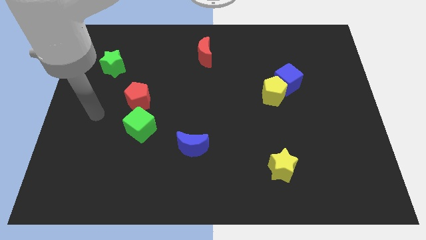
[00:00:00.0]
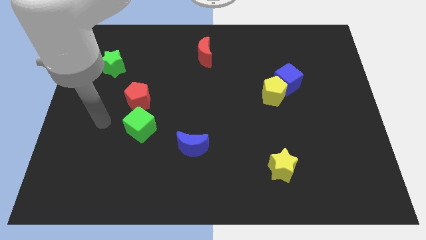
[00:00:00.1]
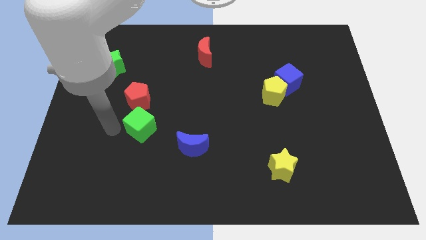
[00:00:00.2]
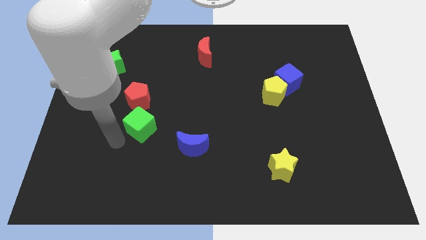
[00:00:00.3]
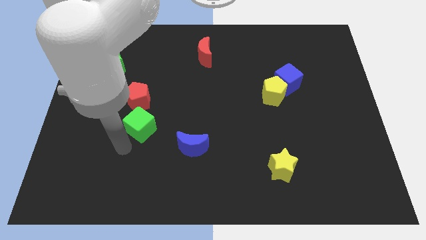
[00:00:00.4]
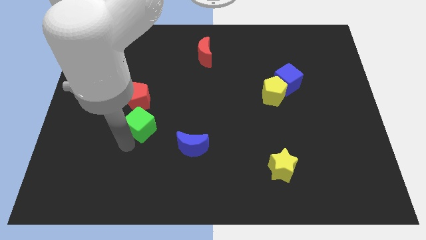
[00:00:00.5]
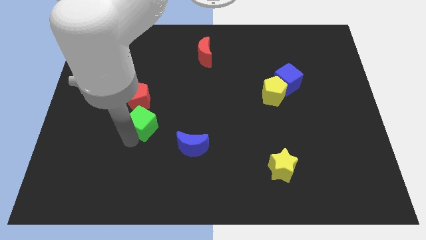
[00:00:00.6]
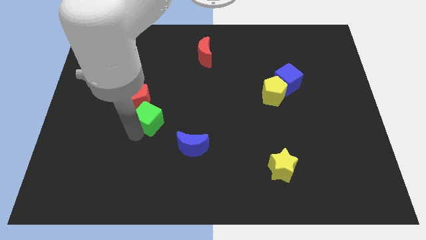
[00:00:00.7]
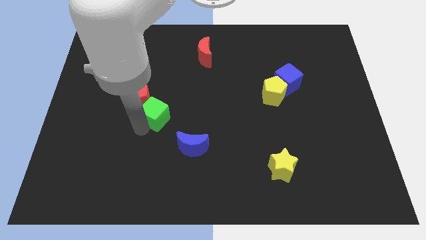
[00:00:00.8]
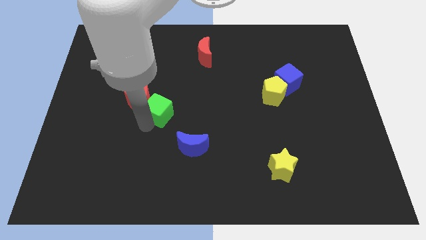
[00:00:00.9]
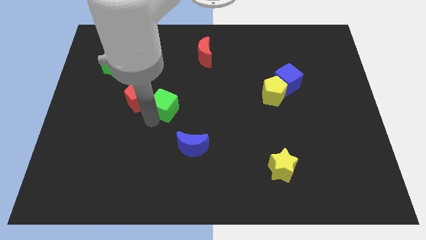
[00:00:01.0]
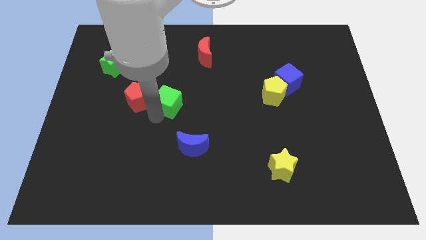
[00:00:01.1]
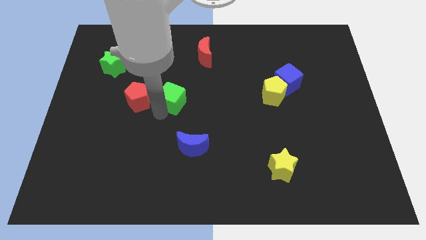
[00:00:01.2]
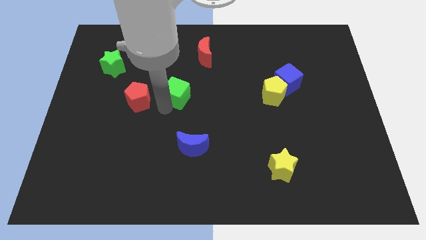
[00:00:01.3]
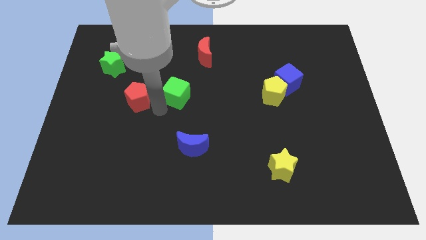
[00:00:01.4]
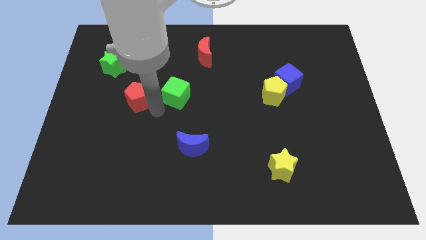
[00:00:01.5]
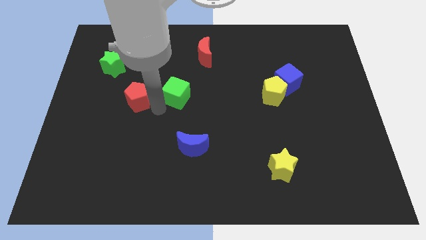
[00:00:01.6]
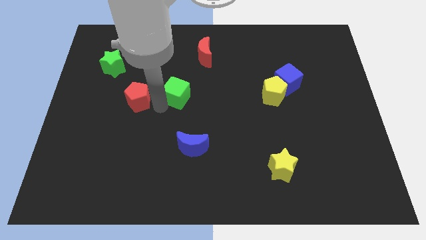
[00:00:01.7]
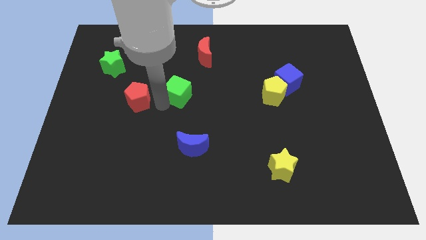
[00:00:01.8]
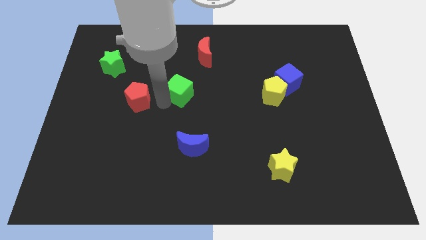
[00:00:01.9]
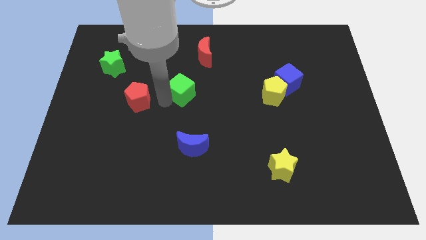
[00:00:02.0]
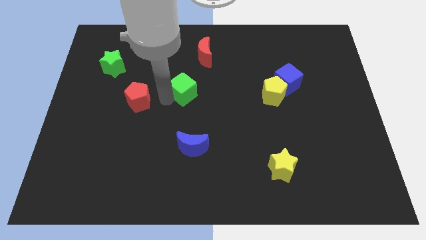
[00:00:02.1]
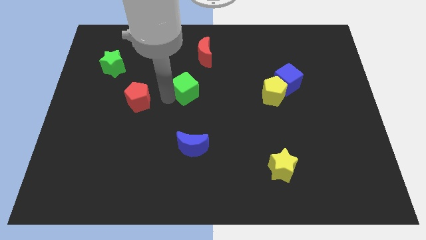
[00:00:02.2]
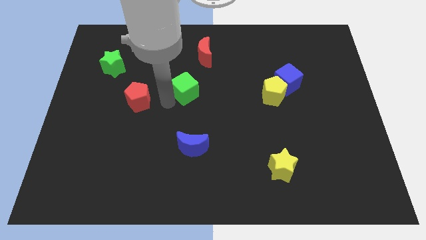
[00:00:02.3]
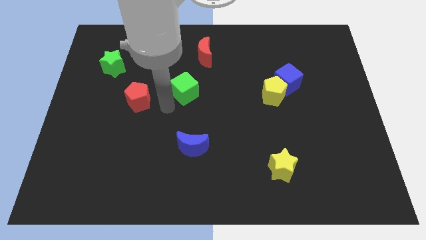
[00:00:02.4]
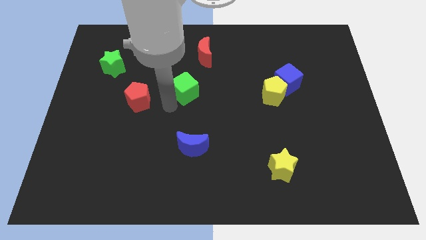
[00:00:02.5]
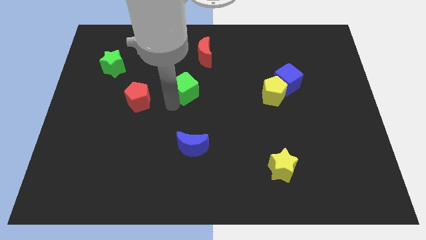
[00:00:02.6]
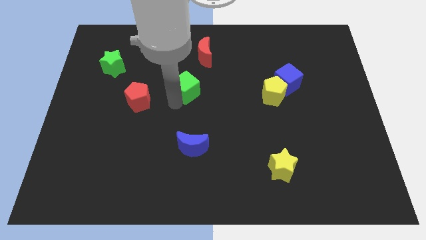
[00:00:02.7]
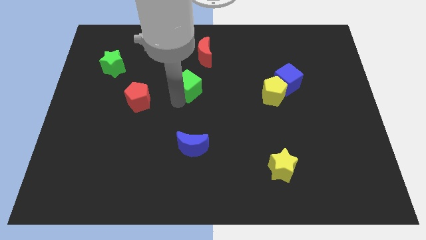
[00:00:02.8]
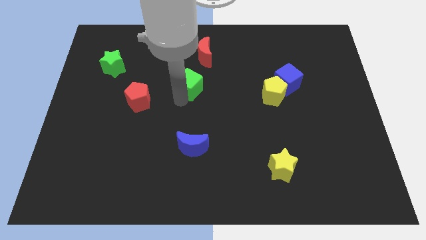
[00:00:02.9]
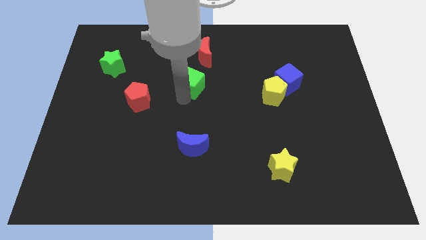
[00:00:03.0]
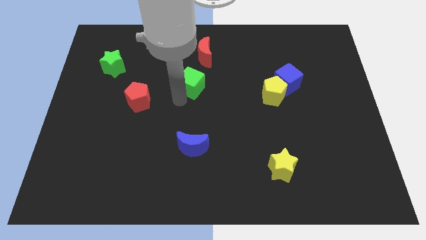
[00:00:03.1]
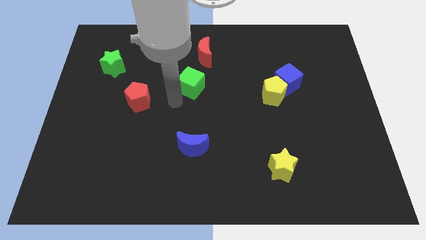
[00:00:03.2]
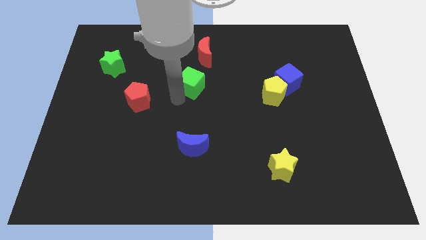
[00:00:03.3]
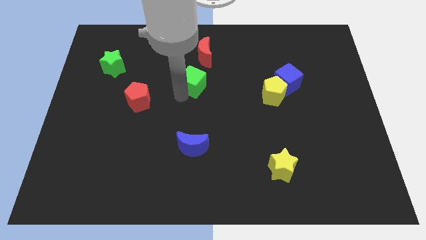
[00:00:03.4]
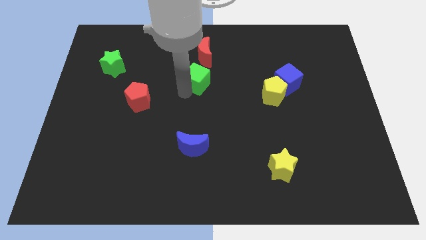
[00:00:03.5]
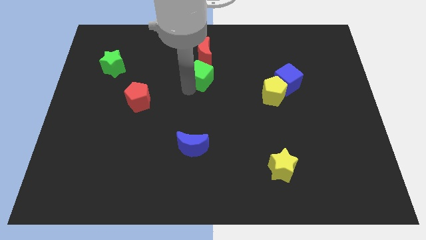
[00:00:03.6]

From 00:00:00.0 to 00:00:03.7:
slide the green cube upwards and then to the right

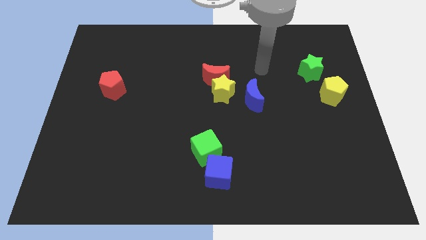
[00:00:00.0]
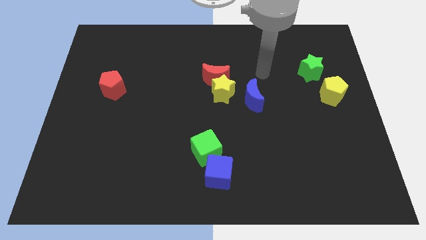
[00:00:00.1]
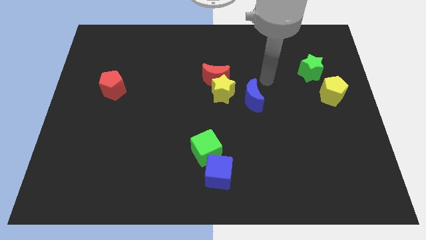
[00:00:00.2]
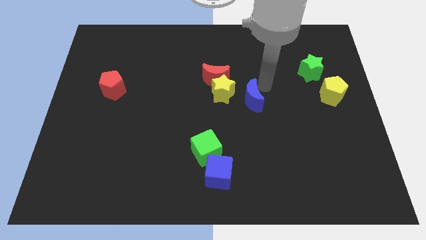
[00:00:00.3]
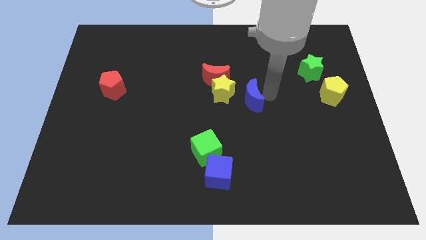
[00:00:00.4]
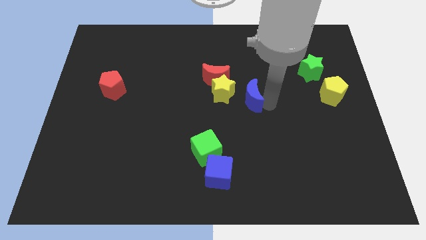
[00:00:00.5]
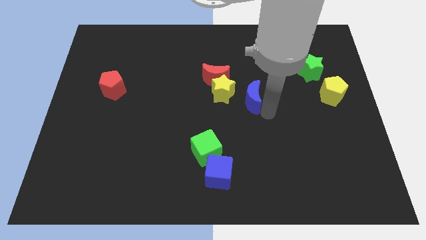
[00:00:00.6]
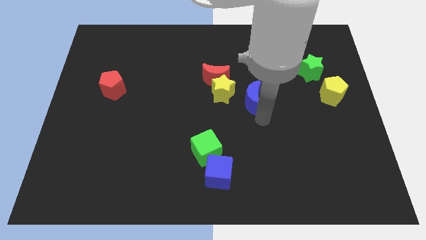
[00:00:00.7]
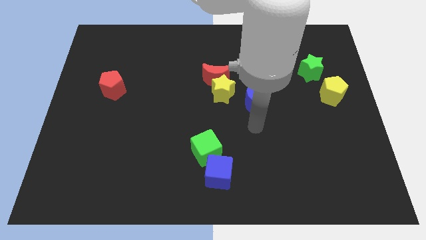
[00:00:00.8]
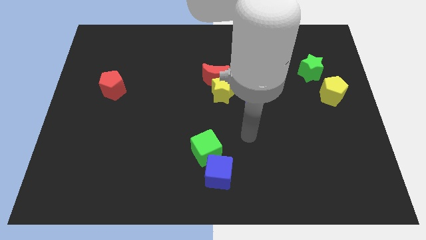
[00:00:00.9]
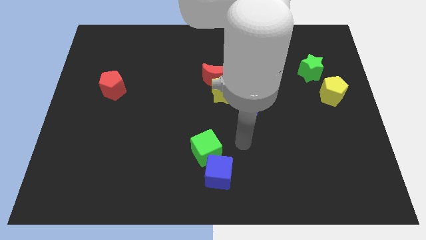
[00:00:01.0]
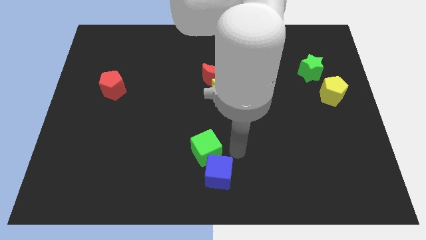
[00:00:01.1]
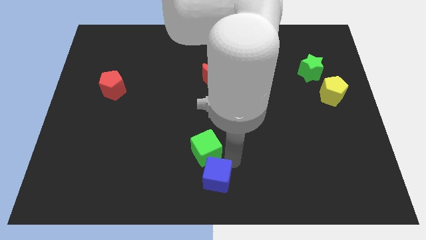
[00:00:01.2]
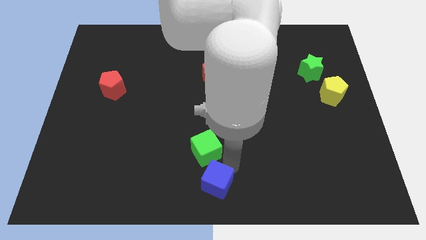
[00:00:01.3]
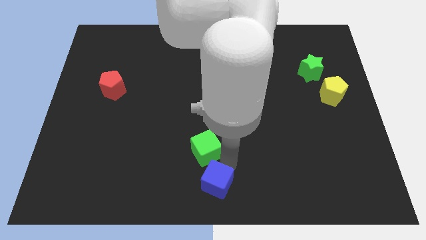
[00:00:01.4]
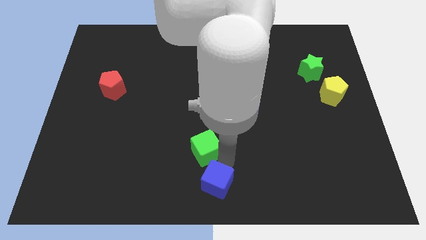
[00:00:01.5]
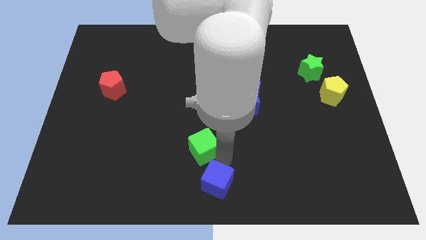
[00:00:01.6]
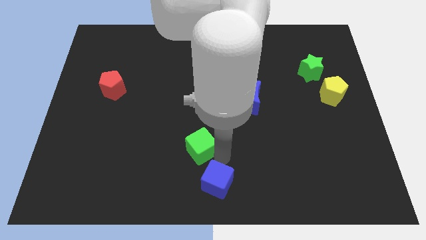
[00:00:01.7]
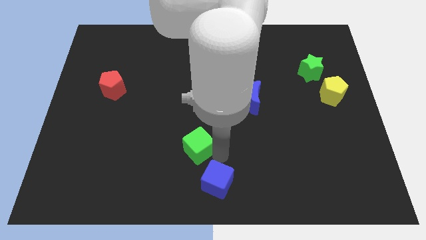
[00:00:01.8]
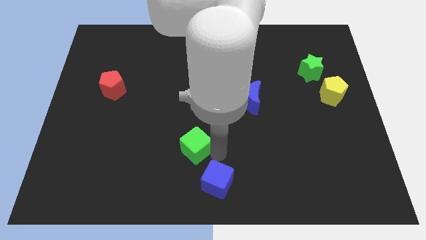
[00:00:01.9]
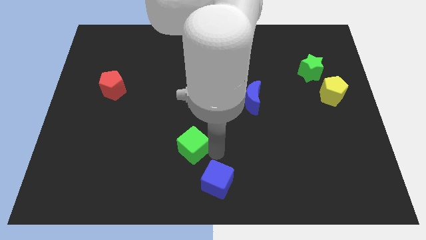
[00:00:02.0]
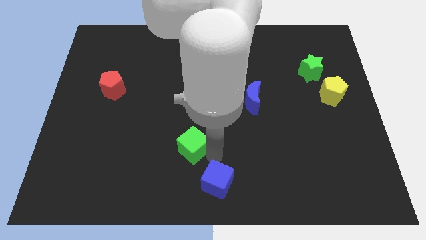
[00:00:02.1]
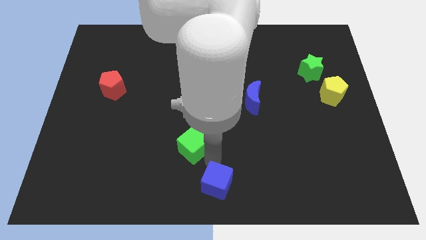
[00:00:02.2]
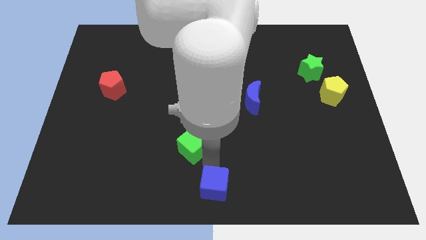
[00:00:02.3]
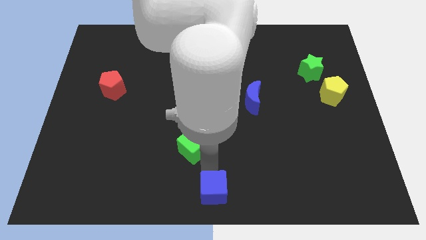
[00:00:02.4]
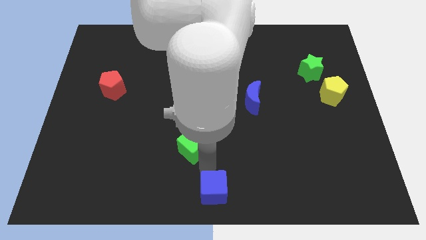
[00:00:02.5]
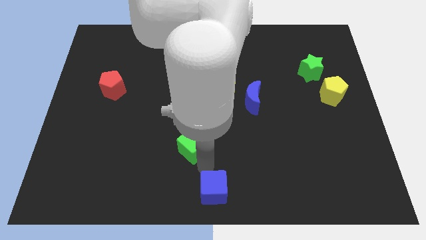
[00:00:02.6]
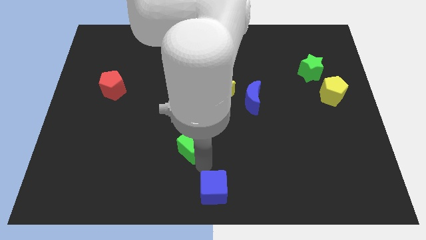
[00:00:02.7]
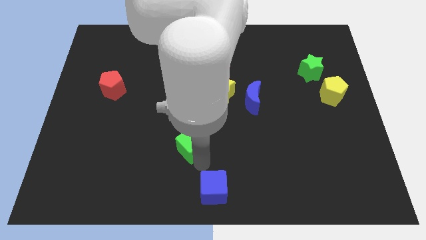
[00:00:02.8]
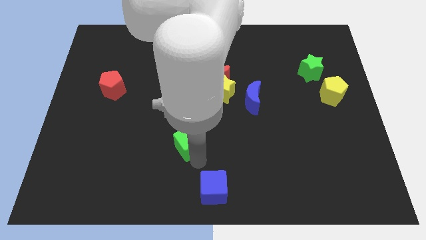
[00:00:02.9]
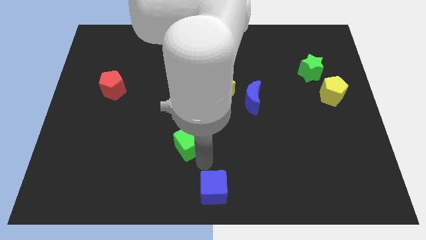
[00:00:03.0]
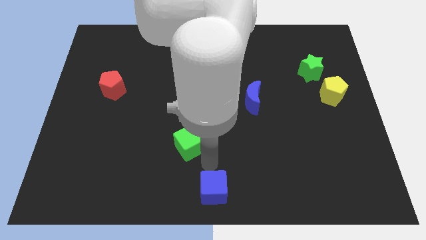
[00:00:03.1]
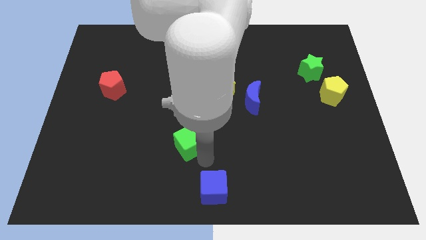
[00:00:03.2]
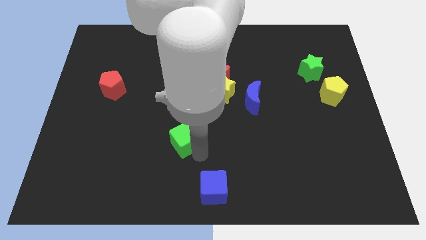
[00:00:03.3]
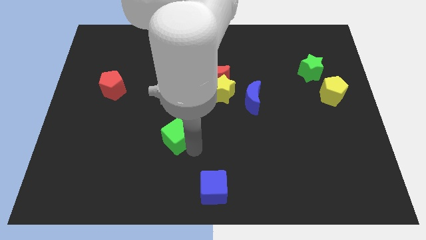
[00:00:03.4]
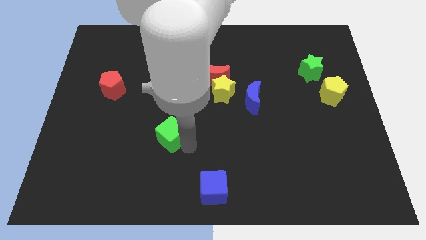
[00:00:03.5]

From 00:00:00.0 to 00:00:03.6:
push the green cube diagonally up and to the left somewhat

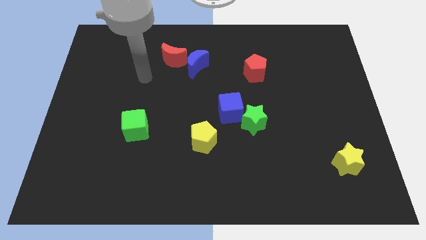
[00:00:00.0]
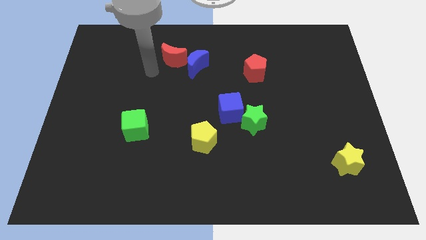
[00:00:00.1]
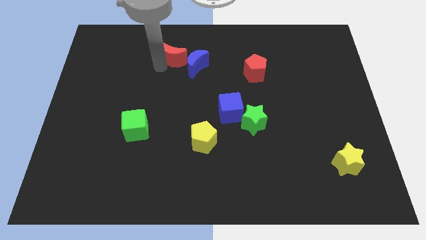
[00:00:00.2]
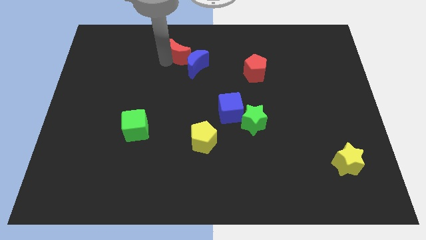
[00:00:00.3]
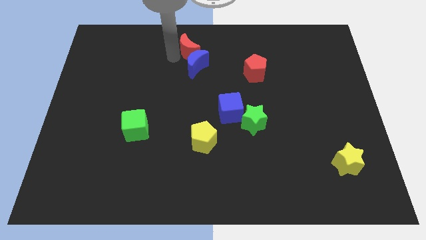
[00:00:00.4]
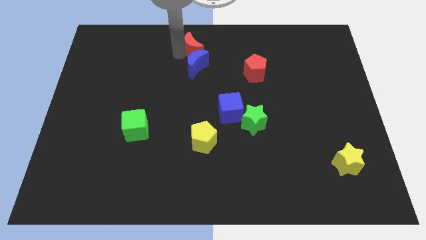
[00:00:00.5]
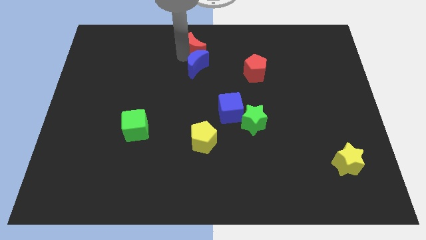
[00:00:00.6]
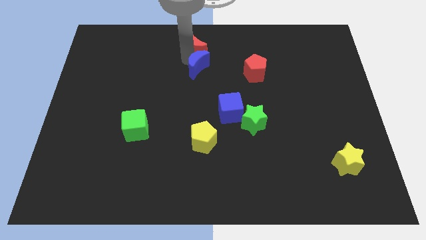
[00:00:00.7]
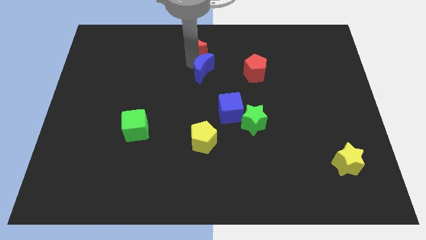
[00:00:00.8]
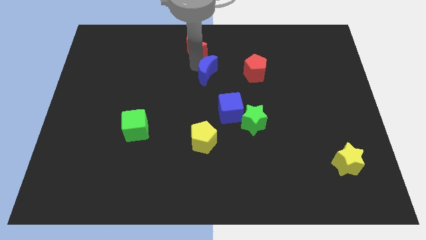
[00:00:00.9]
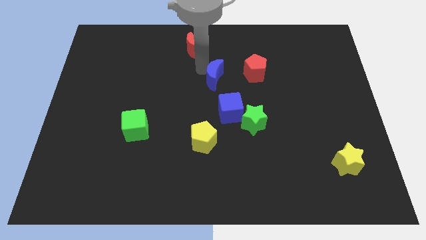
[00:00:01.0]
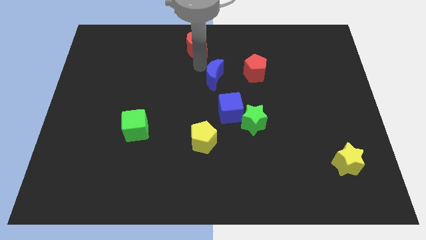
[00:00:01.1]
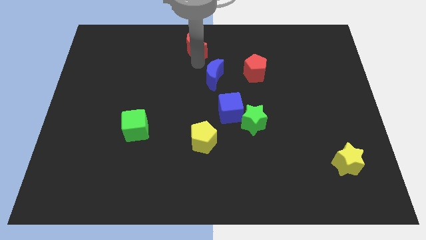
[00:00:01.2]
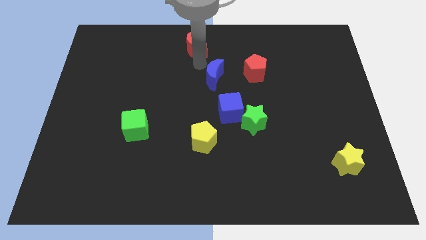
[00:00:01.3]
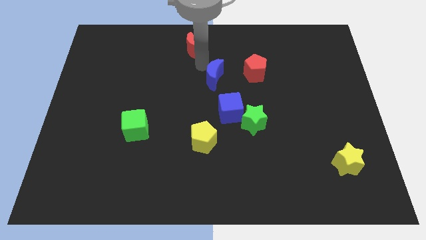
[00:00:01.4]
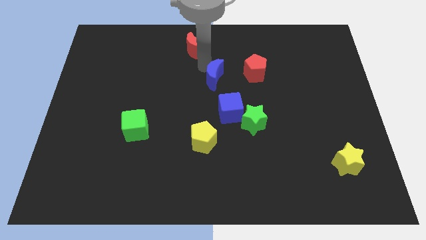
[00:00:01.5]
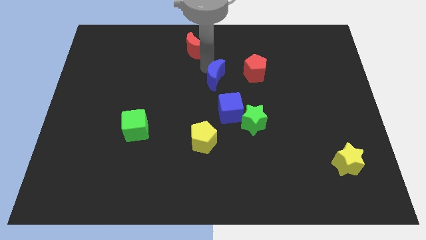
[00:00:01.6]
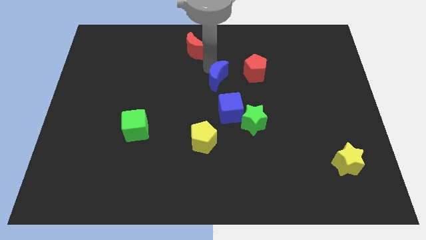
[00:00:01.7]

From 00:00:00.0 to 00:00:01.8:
move the blue moon down and to the right diagonally slightly
